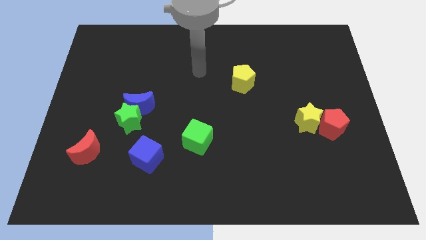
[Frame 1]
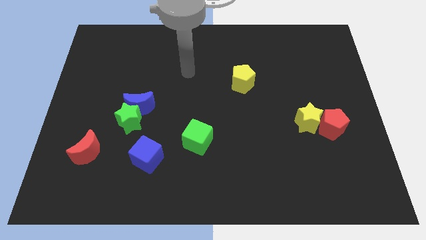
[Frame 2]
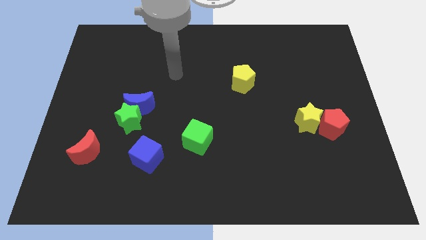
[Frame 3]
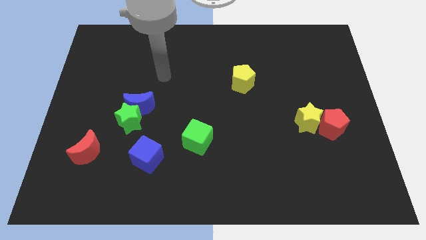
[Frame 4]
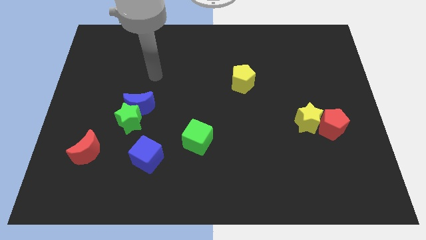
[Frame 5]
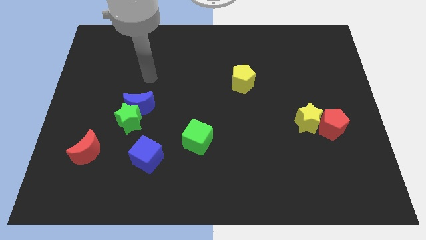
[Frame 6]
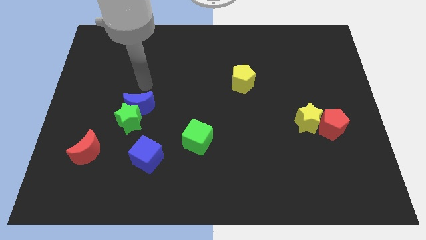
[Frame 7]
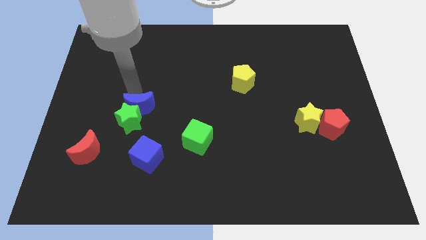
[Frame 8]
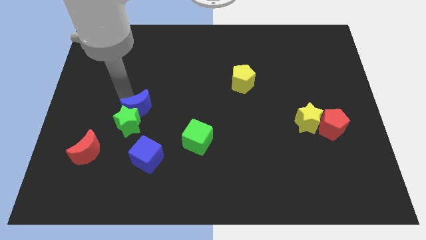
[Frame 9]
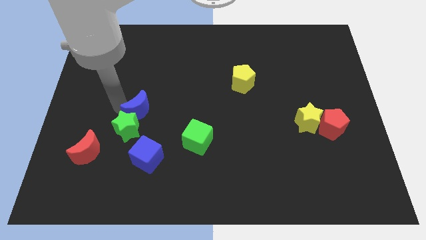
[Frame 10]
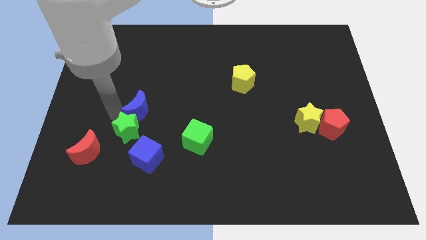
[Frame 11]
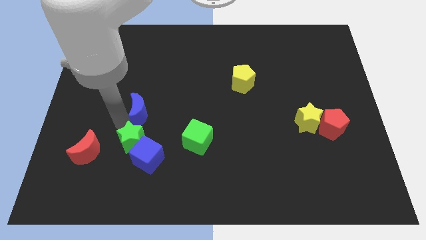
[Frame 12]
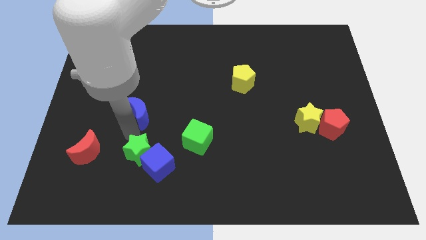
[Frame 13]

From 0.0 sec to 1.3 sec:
pull the blue moon apart from the green star

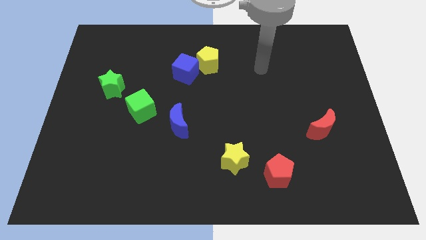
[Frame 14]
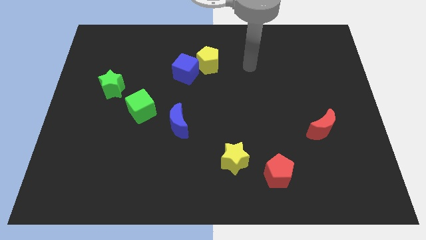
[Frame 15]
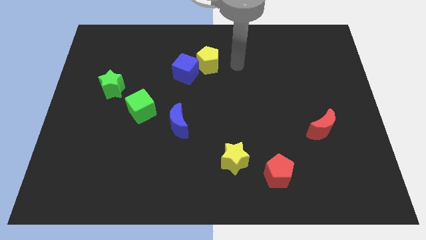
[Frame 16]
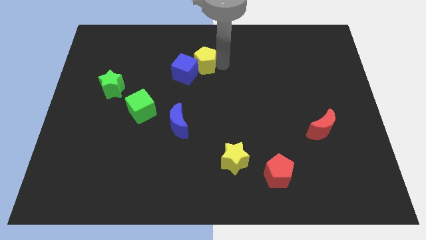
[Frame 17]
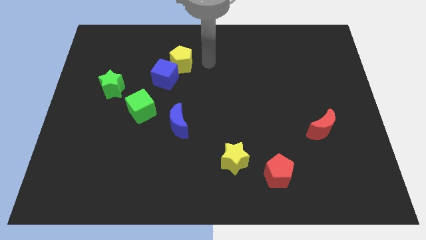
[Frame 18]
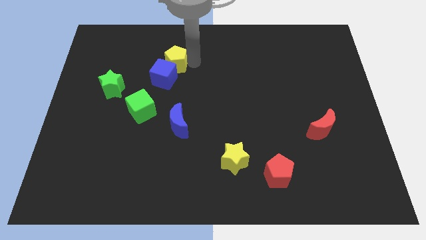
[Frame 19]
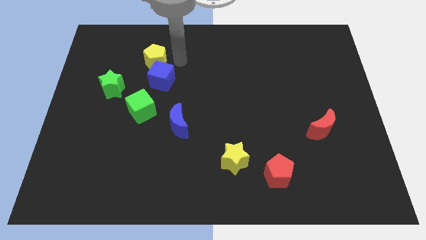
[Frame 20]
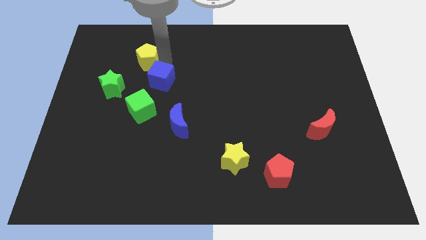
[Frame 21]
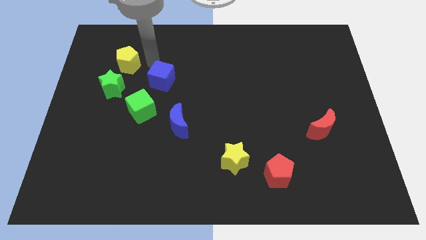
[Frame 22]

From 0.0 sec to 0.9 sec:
separate the blue cube from the yellow pentagon

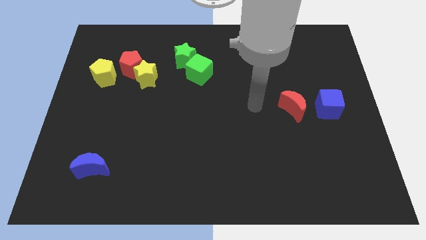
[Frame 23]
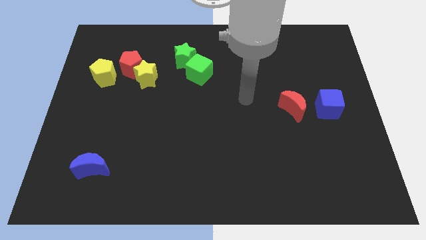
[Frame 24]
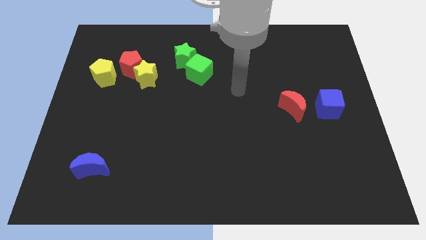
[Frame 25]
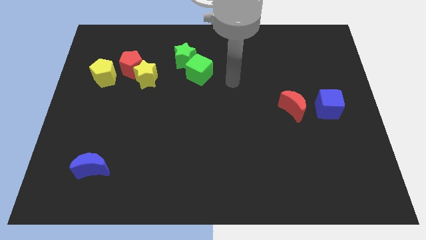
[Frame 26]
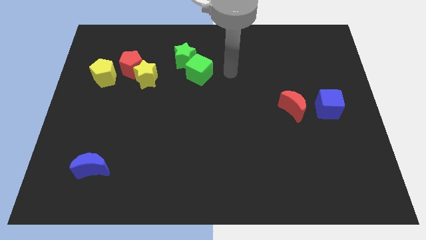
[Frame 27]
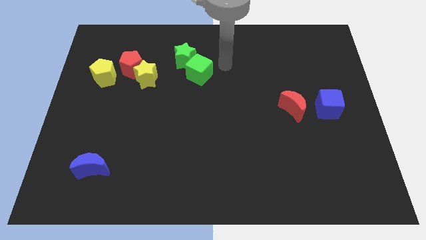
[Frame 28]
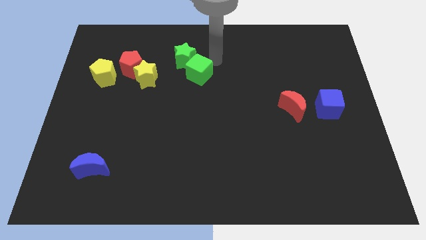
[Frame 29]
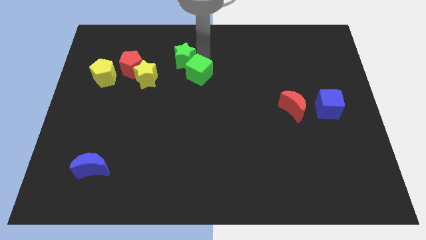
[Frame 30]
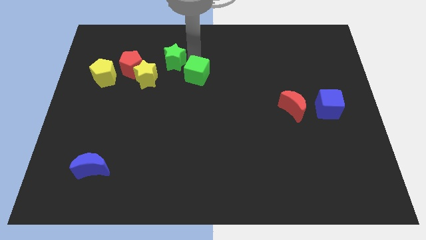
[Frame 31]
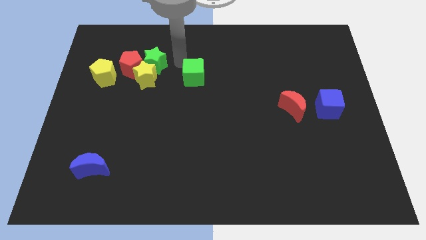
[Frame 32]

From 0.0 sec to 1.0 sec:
separate the green cube from the green star

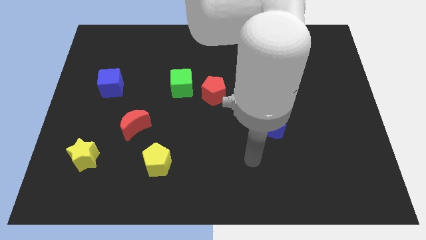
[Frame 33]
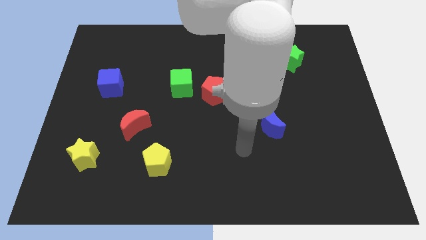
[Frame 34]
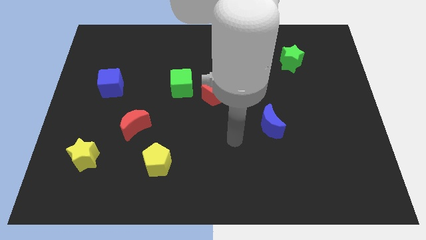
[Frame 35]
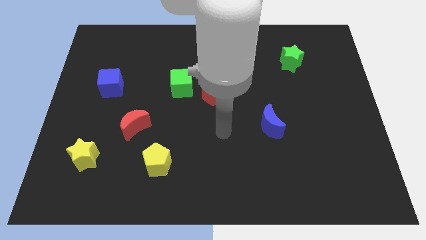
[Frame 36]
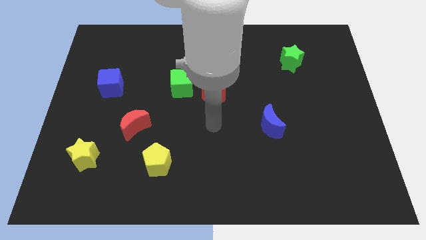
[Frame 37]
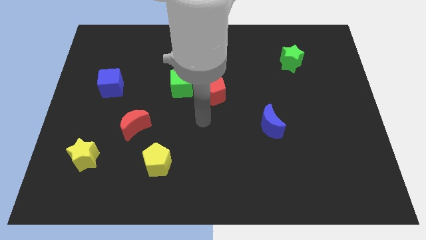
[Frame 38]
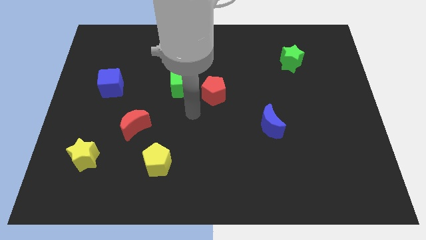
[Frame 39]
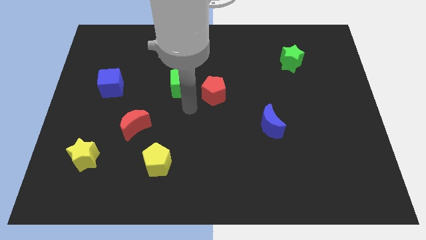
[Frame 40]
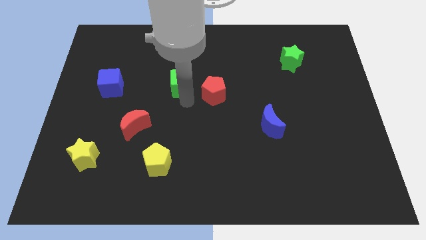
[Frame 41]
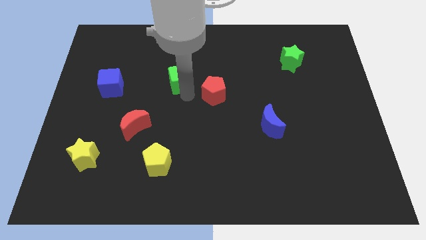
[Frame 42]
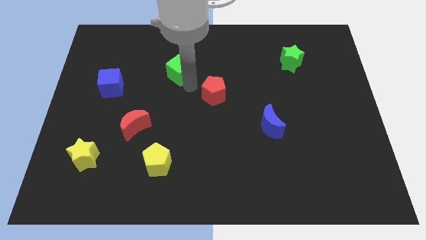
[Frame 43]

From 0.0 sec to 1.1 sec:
move the red pentagon away from the green cube

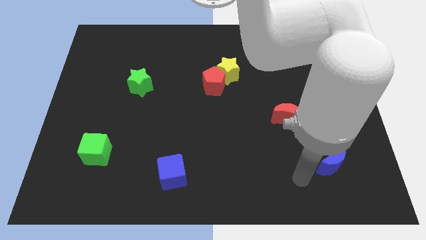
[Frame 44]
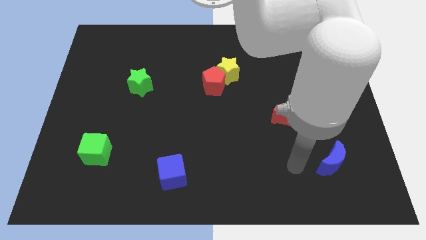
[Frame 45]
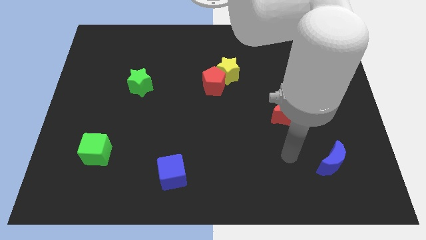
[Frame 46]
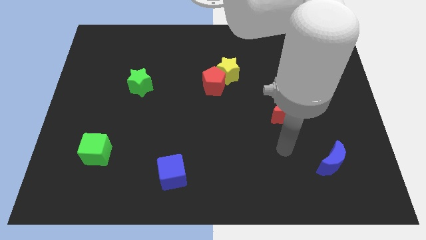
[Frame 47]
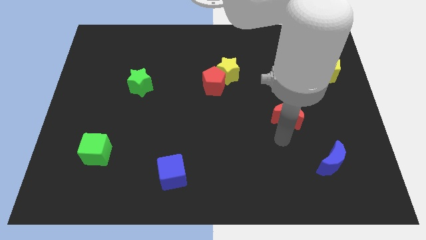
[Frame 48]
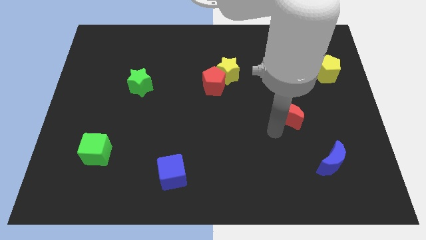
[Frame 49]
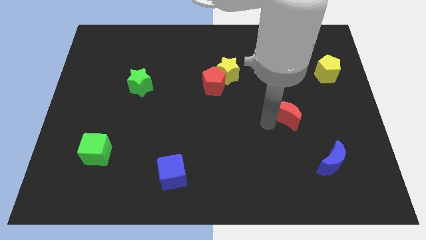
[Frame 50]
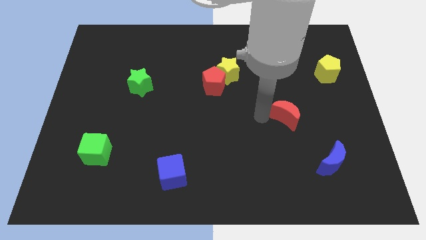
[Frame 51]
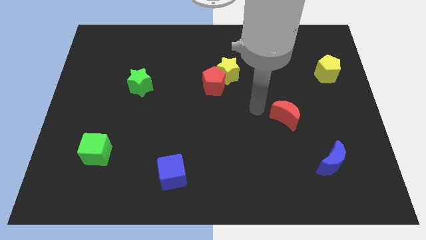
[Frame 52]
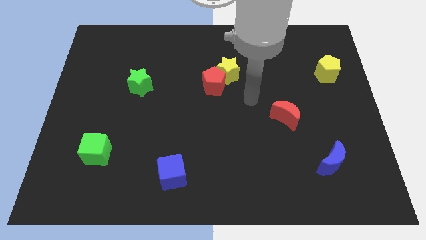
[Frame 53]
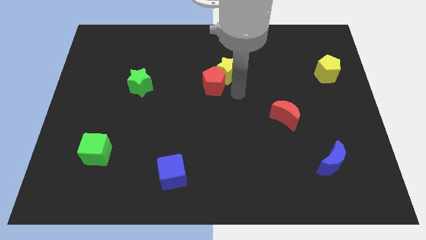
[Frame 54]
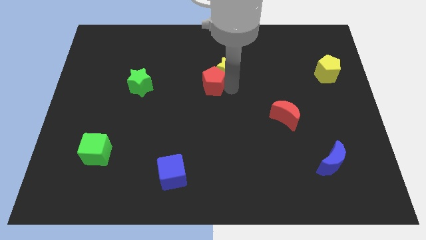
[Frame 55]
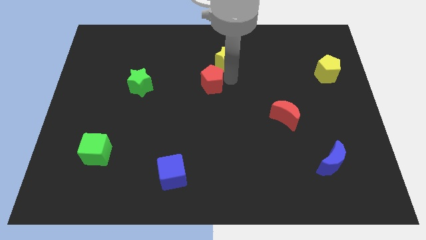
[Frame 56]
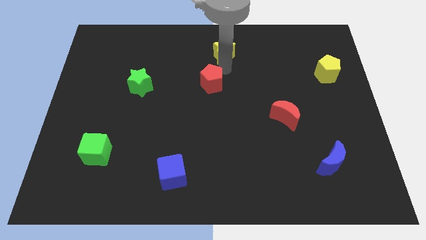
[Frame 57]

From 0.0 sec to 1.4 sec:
pull the red pentagon apart from the yellow star

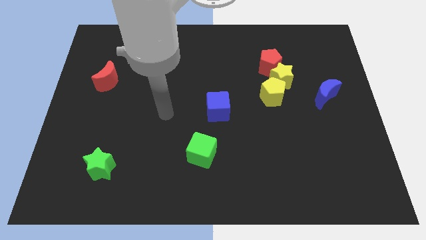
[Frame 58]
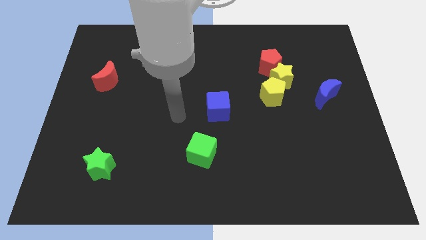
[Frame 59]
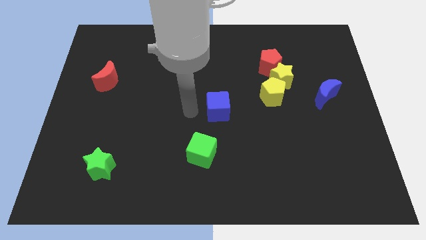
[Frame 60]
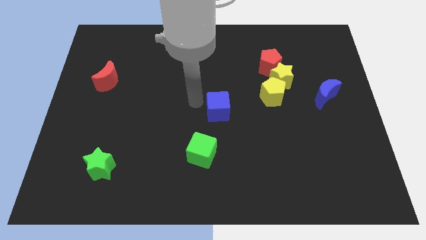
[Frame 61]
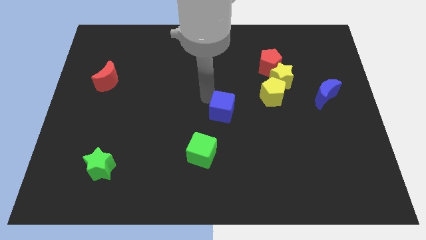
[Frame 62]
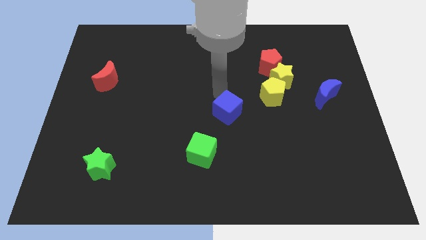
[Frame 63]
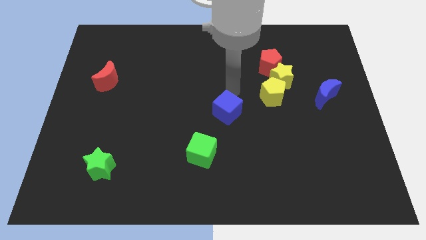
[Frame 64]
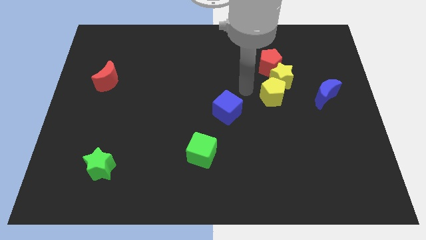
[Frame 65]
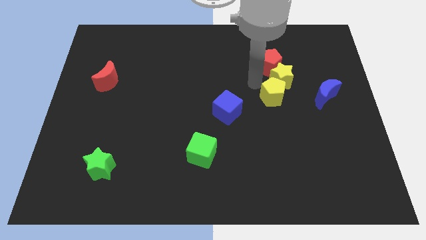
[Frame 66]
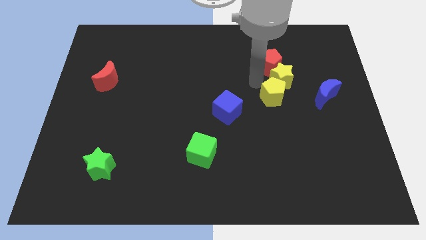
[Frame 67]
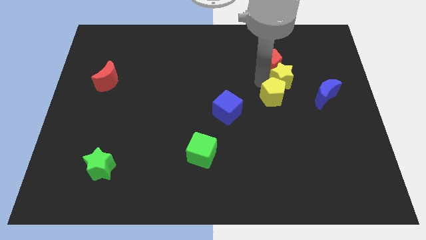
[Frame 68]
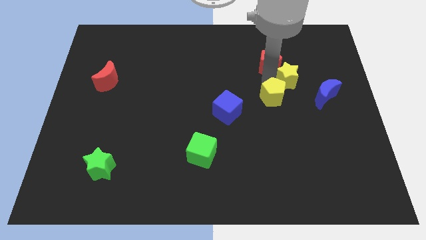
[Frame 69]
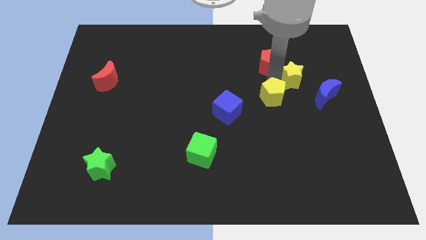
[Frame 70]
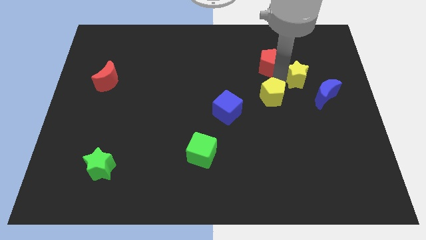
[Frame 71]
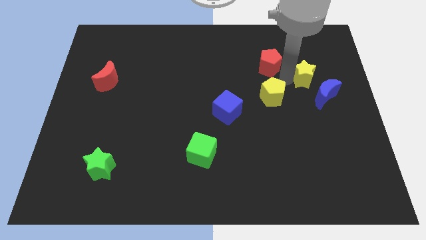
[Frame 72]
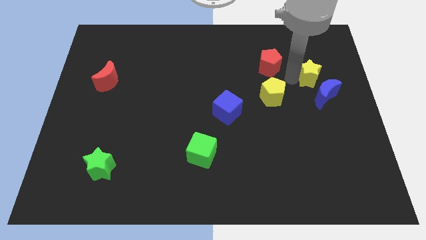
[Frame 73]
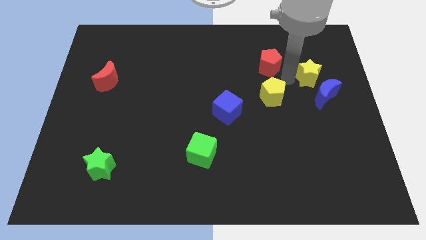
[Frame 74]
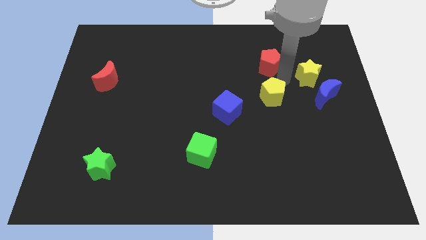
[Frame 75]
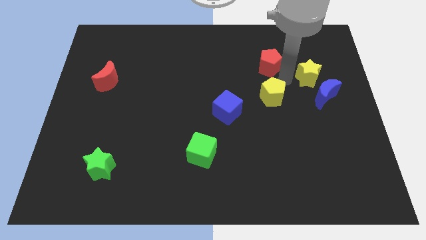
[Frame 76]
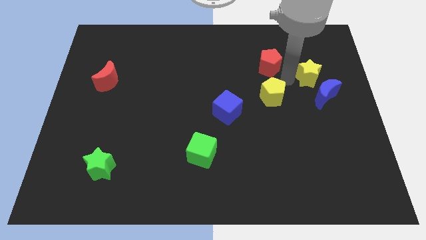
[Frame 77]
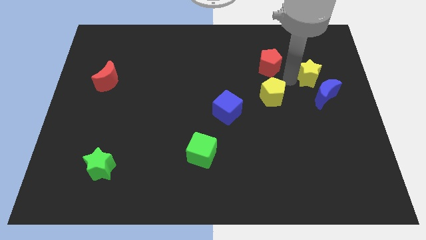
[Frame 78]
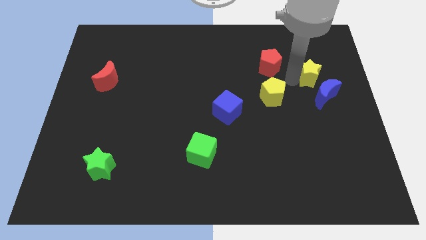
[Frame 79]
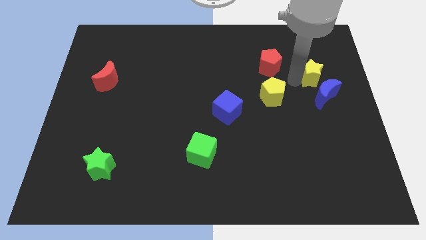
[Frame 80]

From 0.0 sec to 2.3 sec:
pull the yellow star apart from the red pentagon and yellow pentagon

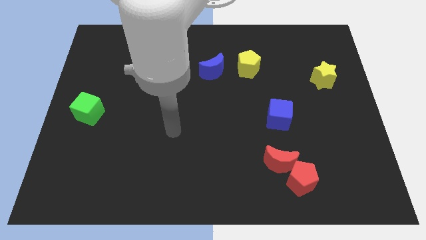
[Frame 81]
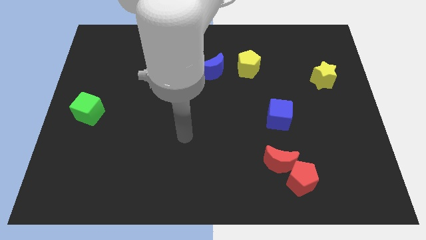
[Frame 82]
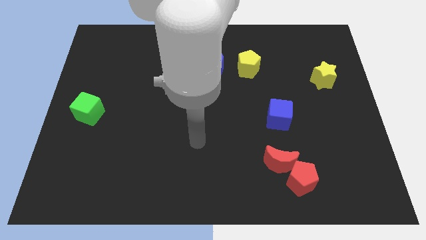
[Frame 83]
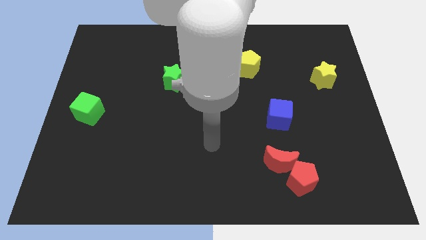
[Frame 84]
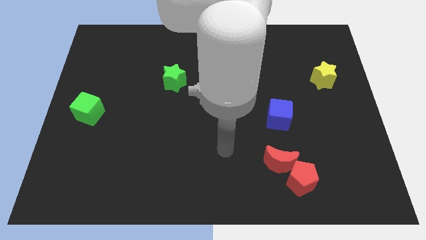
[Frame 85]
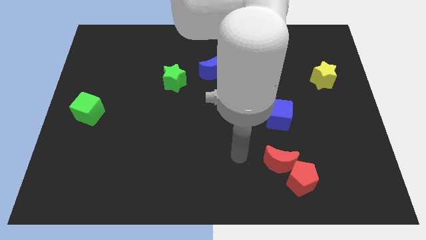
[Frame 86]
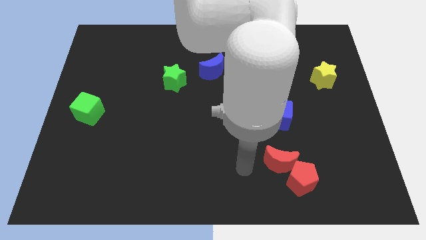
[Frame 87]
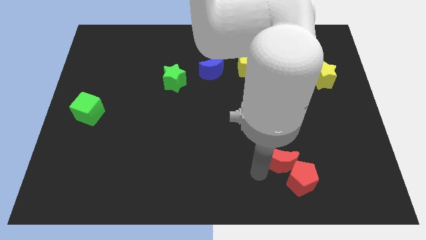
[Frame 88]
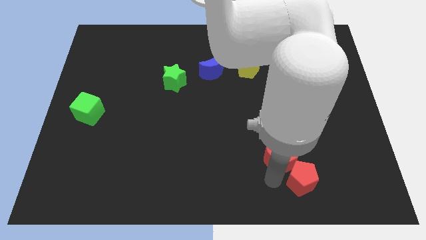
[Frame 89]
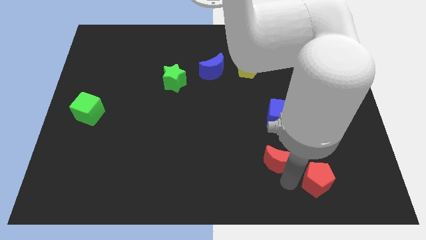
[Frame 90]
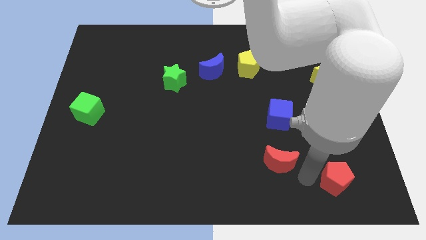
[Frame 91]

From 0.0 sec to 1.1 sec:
separate the red moon from the red pentagon

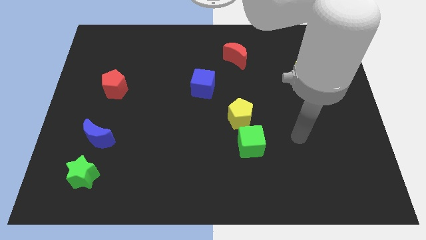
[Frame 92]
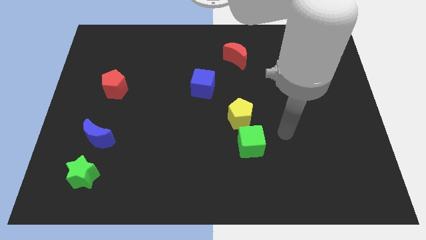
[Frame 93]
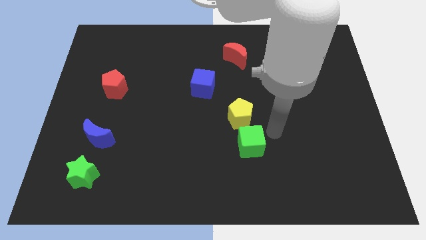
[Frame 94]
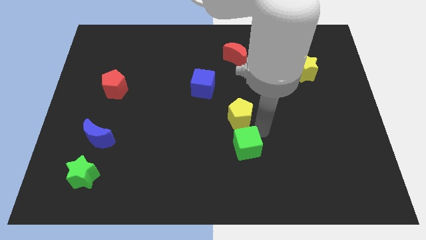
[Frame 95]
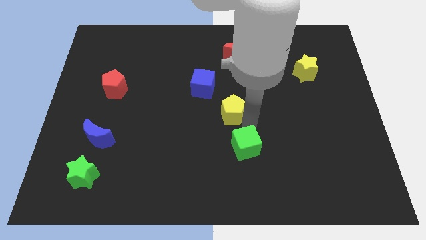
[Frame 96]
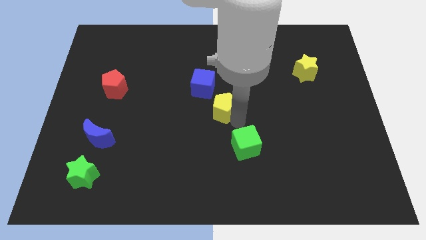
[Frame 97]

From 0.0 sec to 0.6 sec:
move the green cube away from the yellow pentagon
